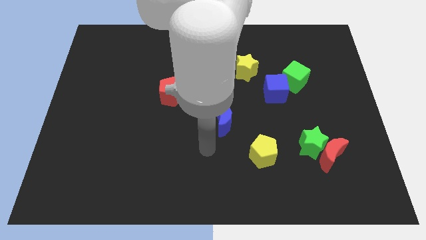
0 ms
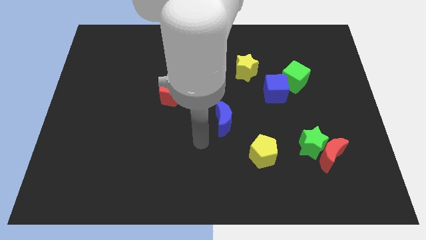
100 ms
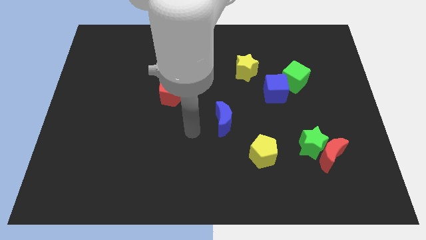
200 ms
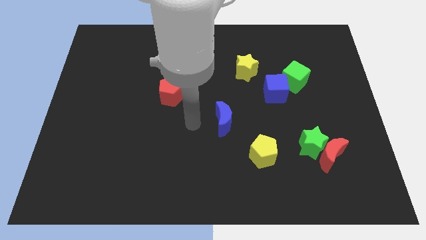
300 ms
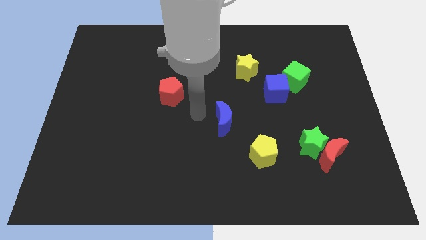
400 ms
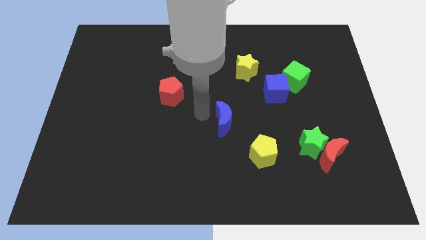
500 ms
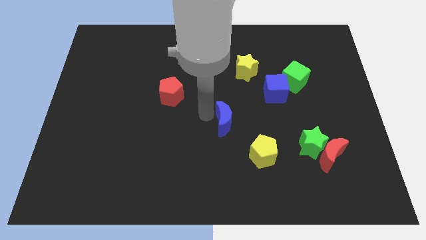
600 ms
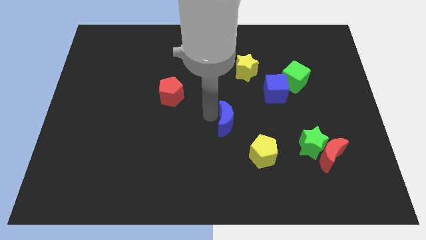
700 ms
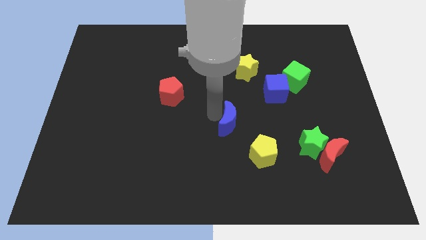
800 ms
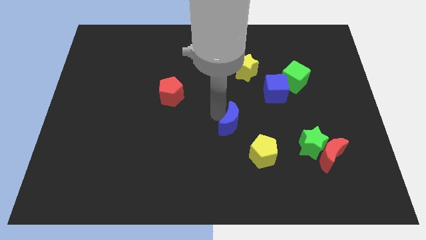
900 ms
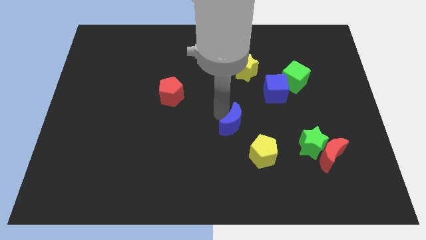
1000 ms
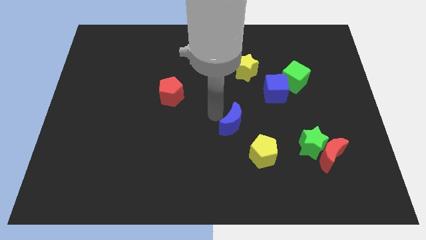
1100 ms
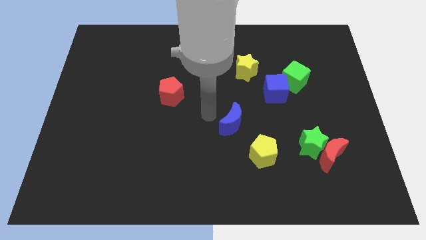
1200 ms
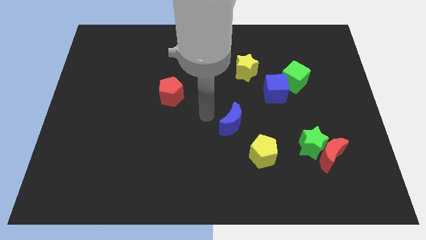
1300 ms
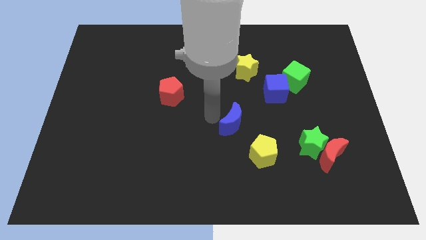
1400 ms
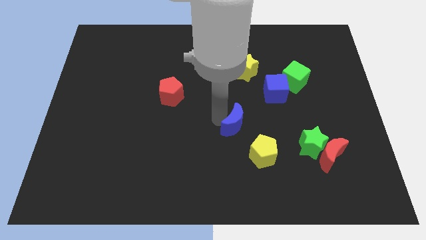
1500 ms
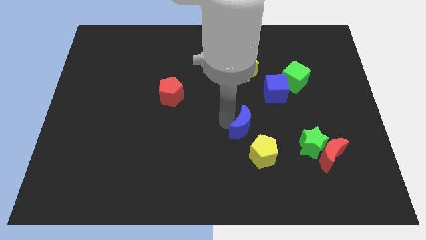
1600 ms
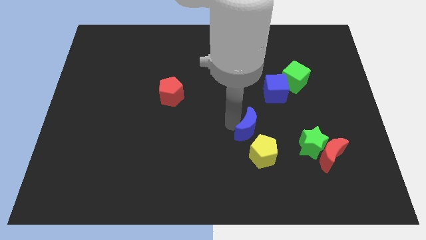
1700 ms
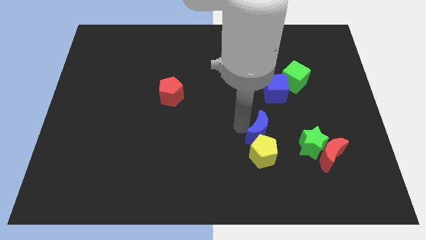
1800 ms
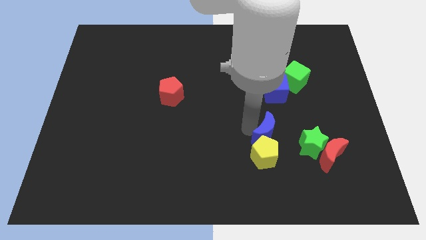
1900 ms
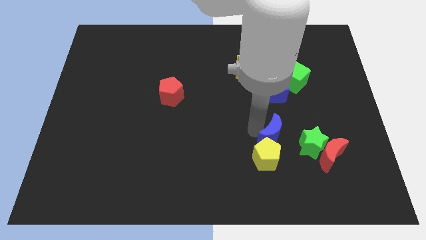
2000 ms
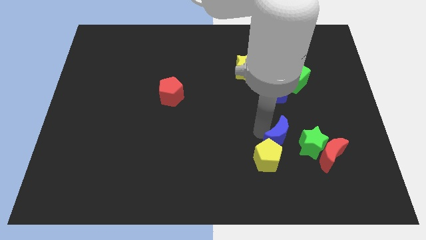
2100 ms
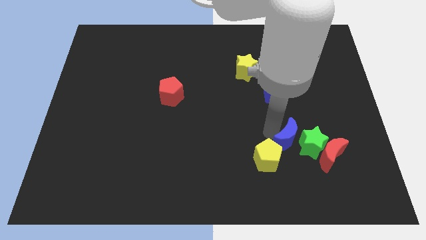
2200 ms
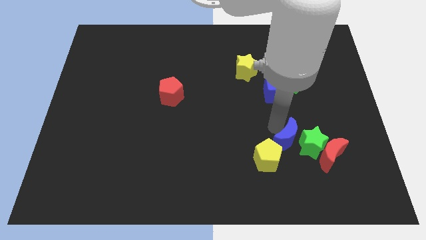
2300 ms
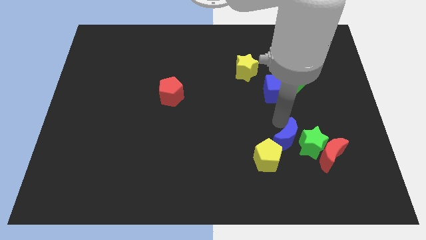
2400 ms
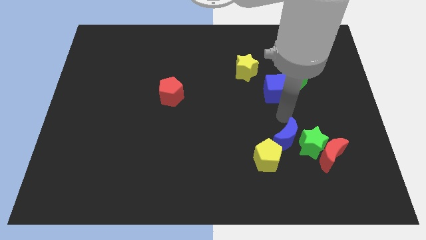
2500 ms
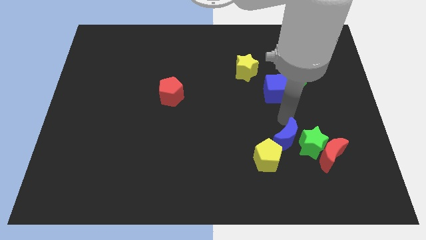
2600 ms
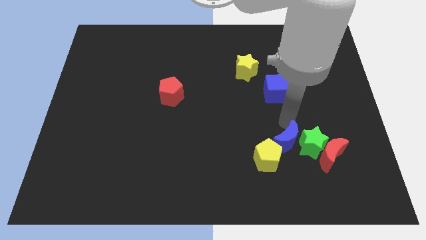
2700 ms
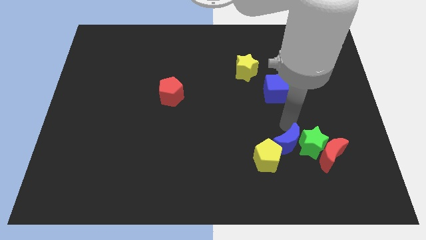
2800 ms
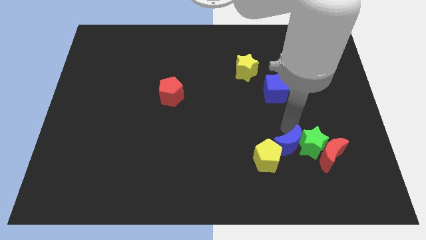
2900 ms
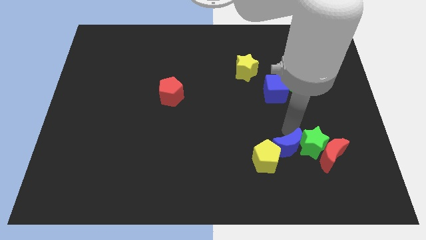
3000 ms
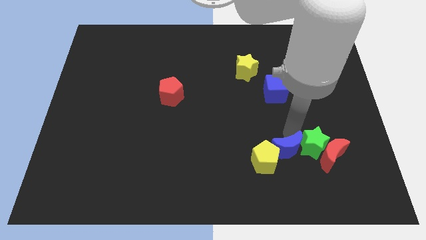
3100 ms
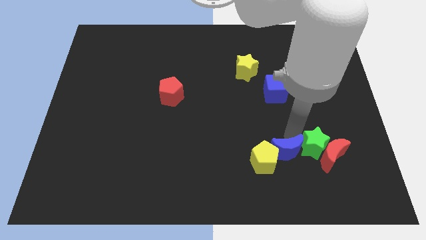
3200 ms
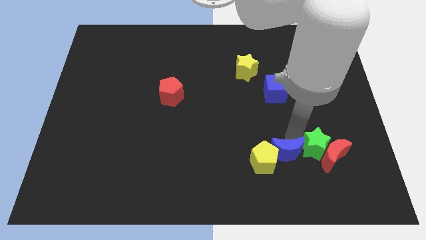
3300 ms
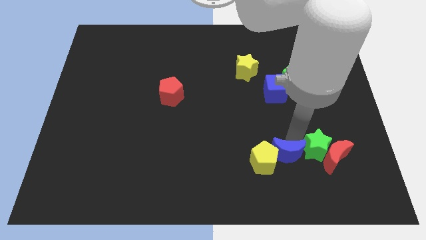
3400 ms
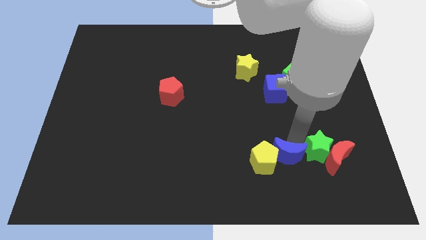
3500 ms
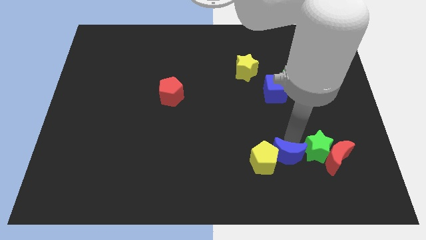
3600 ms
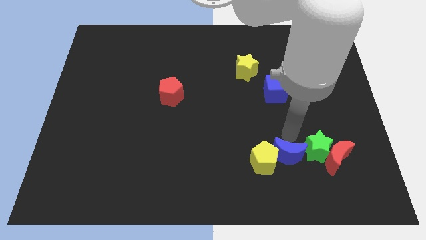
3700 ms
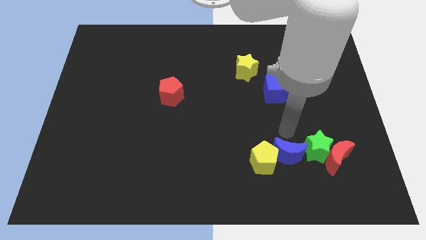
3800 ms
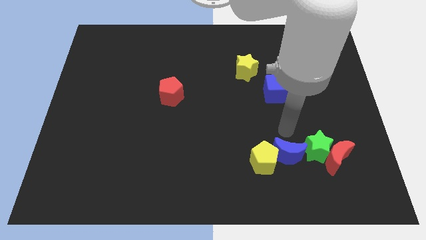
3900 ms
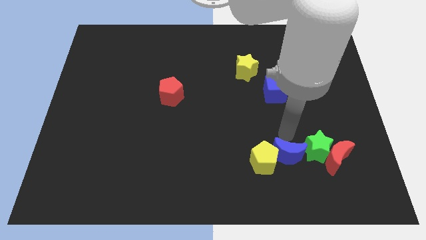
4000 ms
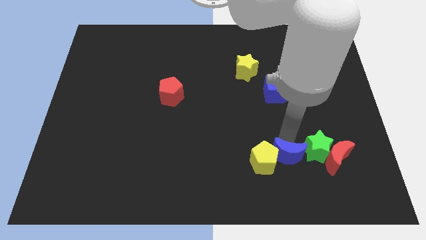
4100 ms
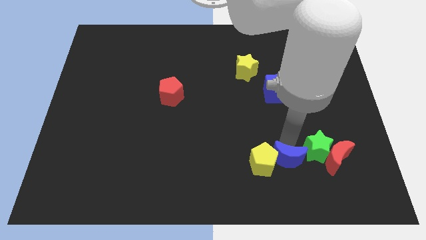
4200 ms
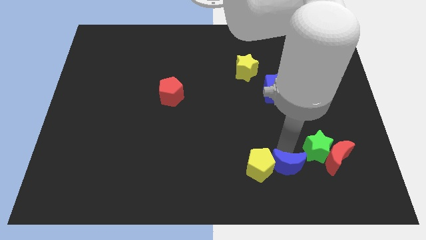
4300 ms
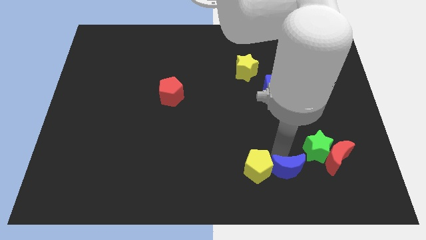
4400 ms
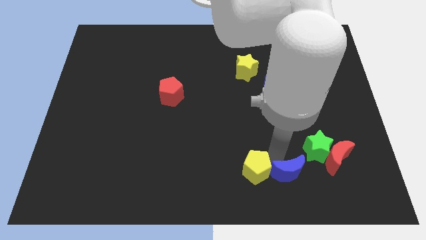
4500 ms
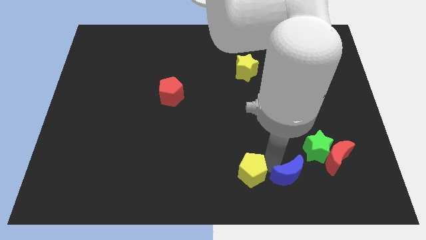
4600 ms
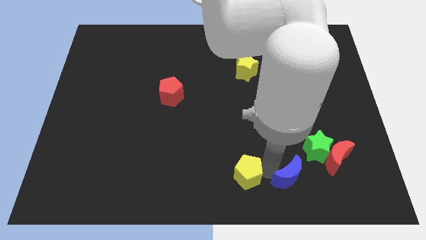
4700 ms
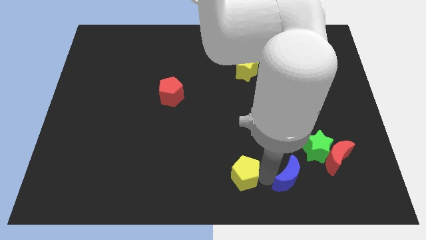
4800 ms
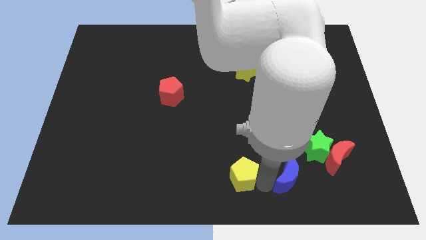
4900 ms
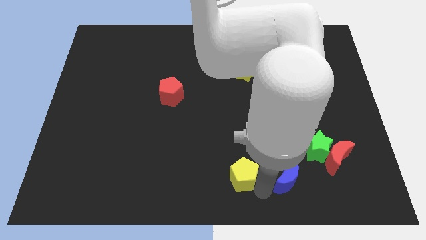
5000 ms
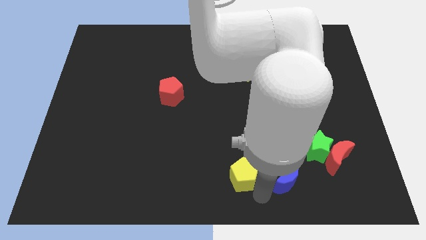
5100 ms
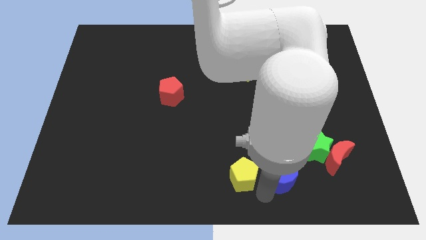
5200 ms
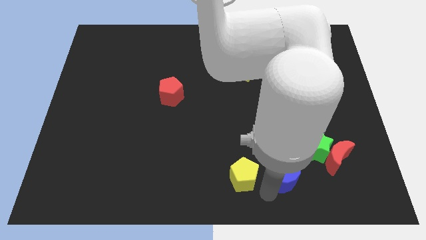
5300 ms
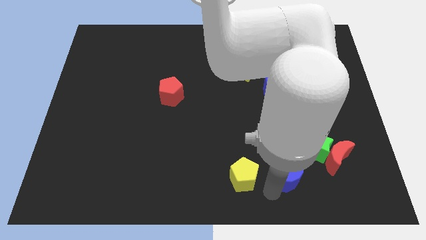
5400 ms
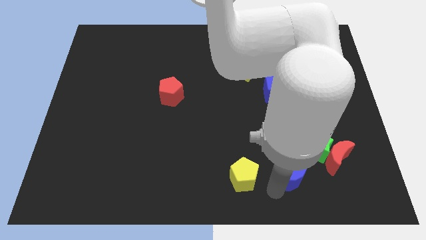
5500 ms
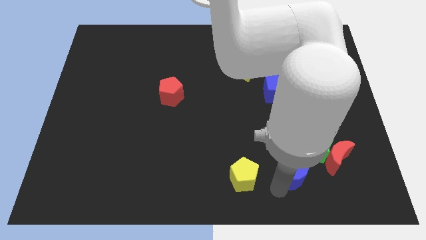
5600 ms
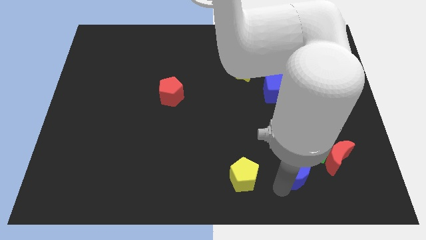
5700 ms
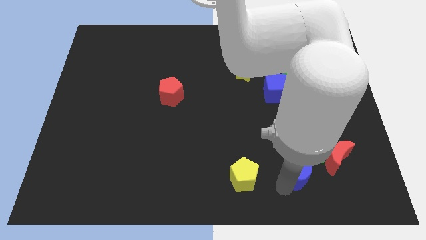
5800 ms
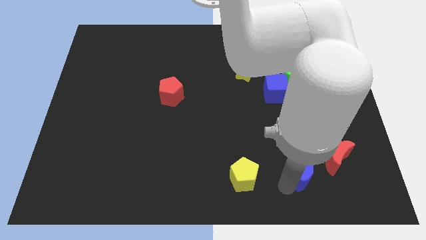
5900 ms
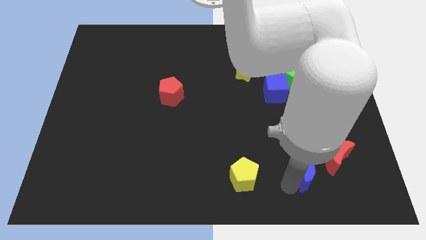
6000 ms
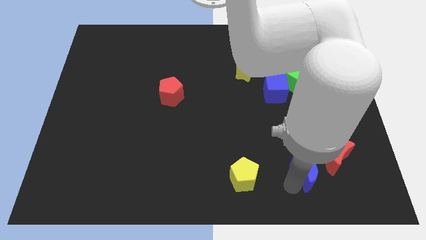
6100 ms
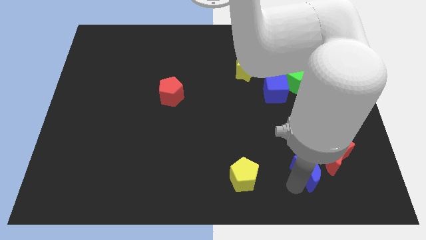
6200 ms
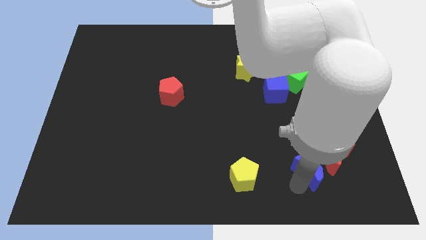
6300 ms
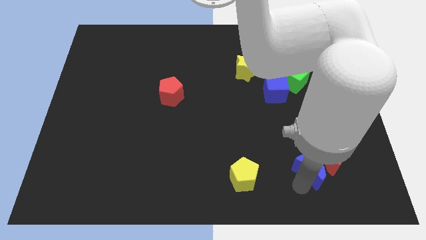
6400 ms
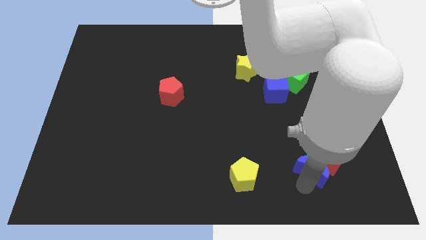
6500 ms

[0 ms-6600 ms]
move the blue moon towards the red moon
